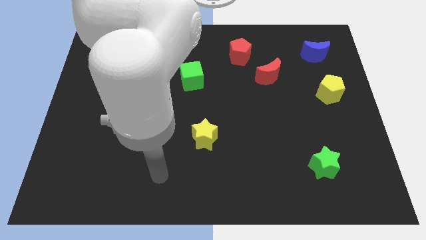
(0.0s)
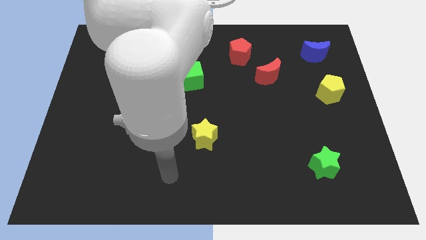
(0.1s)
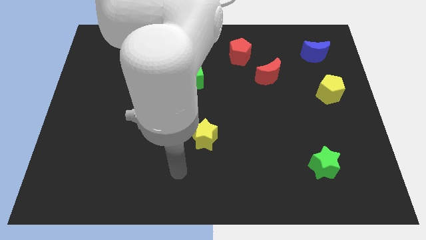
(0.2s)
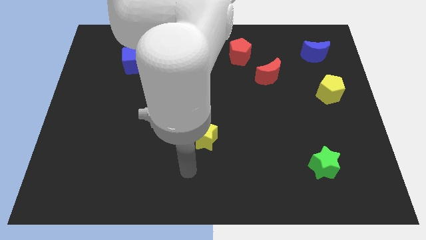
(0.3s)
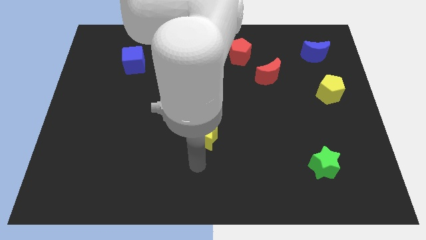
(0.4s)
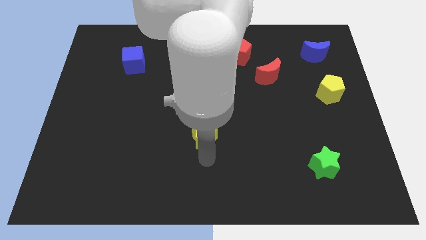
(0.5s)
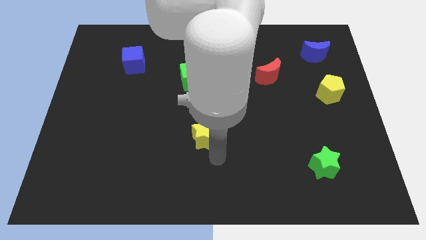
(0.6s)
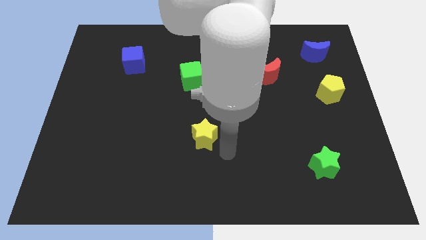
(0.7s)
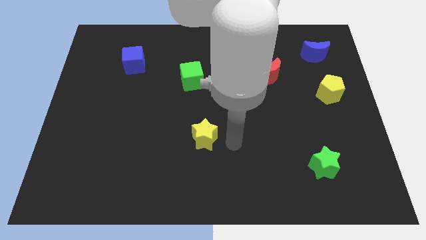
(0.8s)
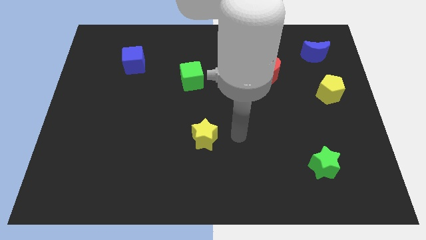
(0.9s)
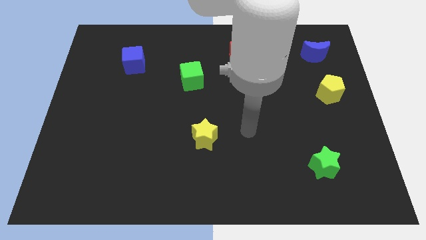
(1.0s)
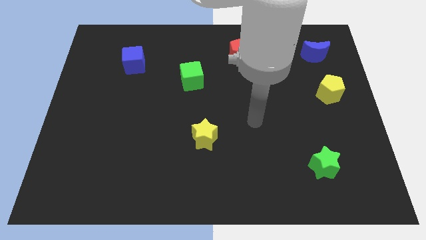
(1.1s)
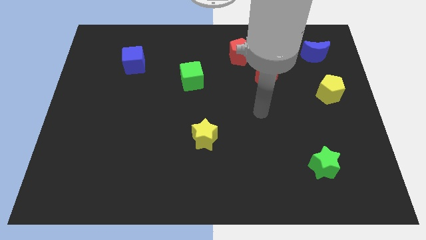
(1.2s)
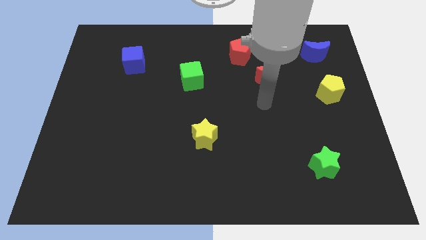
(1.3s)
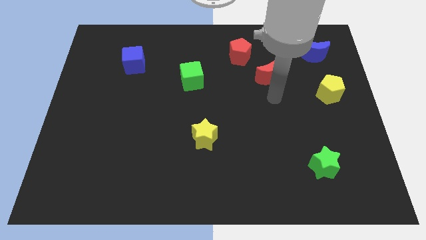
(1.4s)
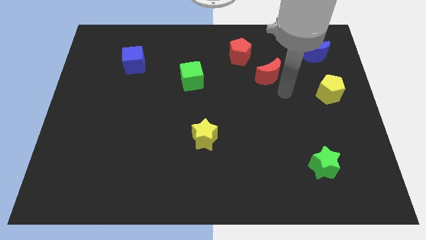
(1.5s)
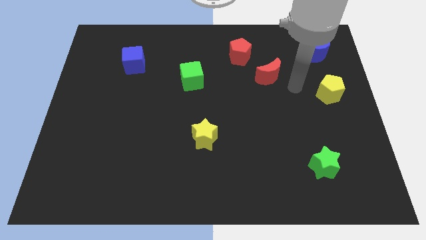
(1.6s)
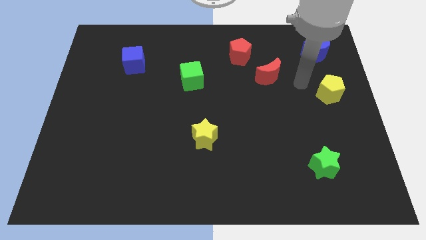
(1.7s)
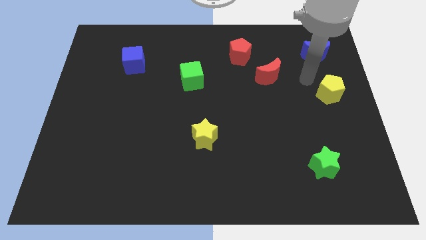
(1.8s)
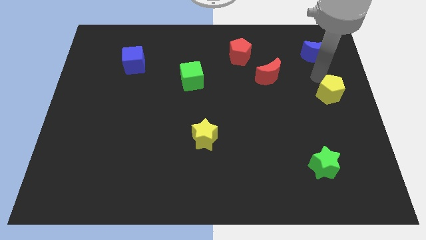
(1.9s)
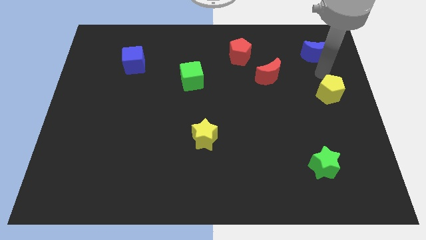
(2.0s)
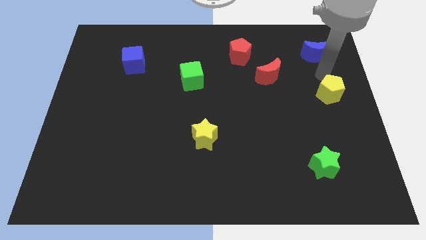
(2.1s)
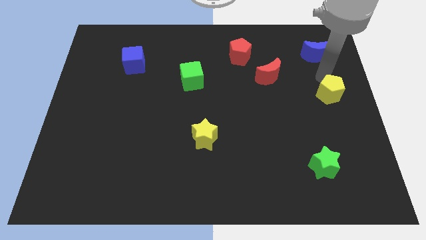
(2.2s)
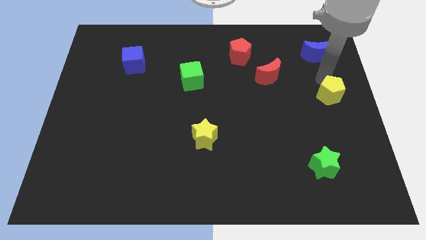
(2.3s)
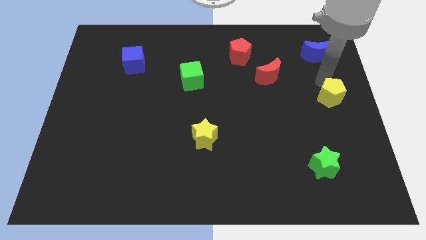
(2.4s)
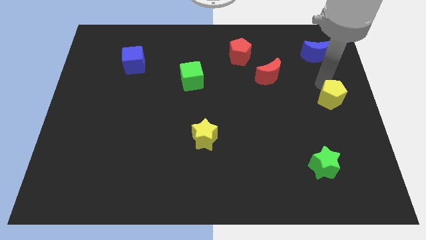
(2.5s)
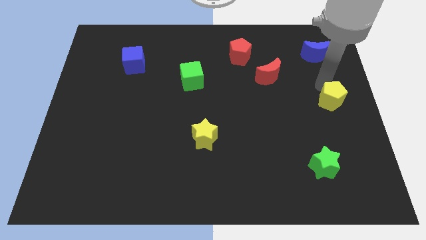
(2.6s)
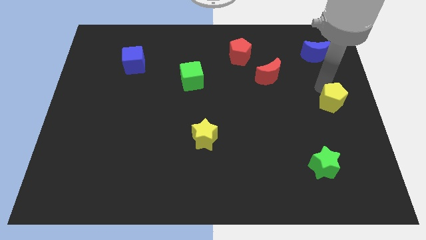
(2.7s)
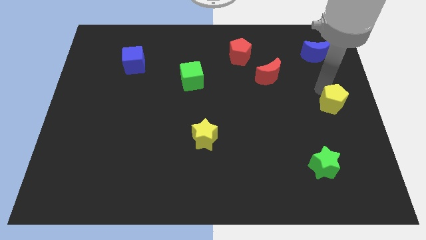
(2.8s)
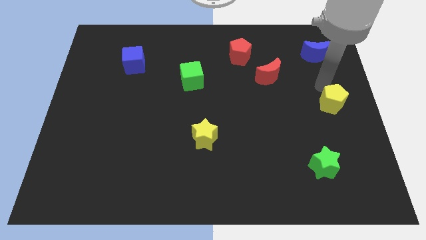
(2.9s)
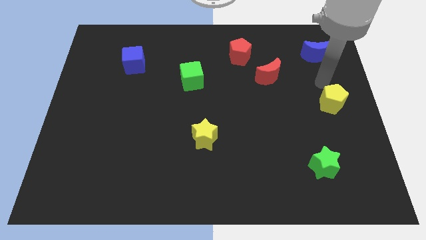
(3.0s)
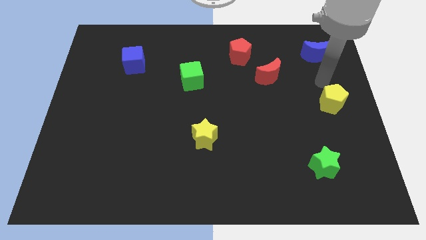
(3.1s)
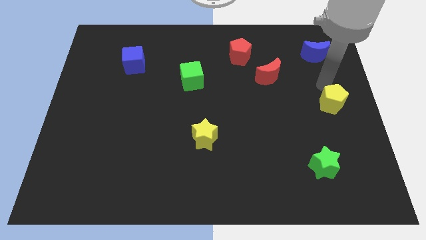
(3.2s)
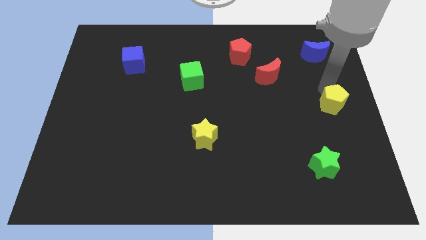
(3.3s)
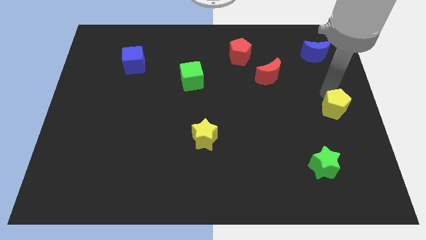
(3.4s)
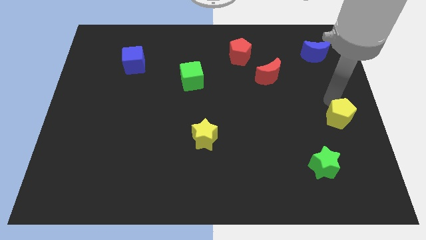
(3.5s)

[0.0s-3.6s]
slightly push the yellow pentagon downwards

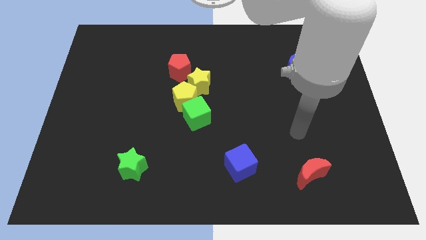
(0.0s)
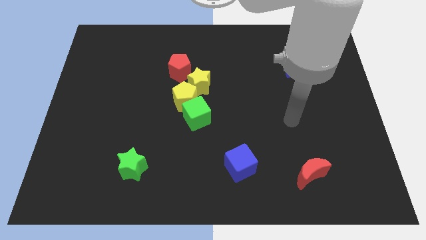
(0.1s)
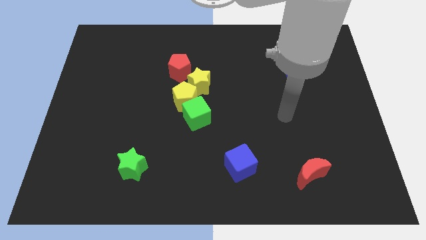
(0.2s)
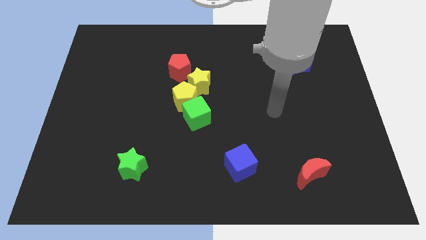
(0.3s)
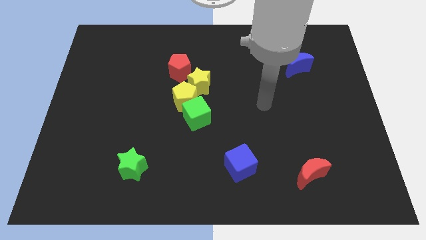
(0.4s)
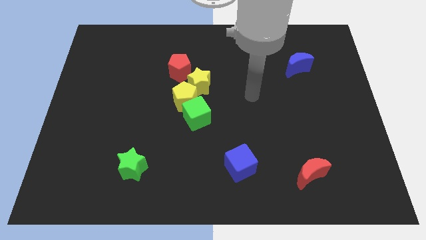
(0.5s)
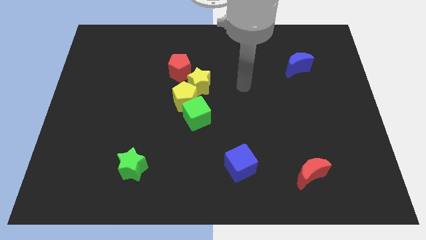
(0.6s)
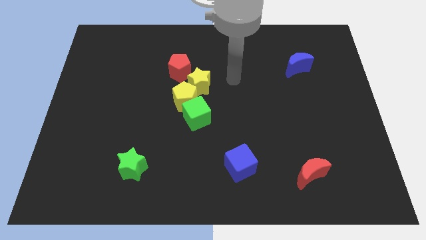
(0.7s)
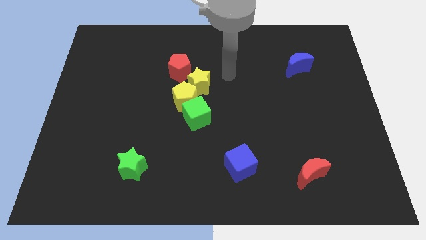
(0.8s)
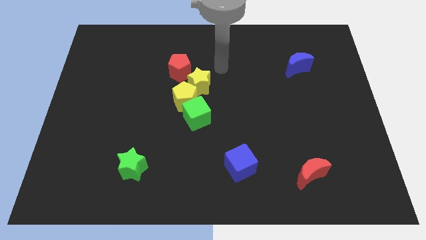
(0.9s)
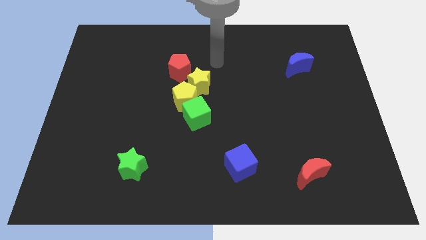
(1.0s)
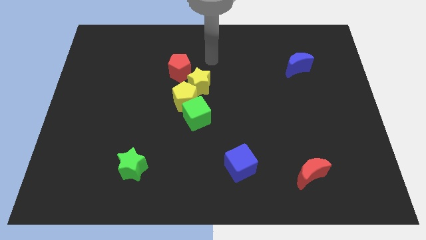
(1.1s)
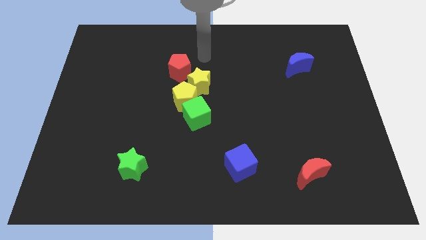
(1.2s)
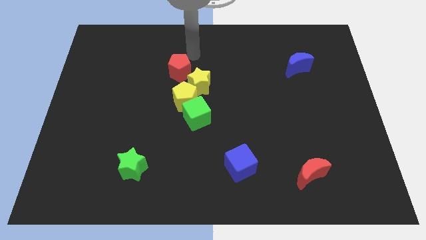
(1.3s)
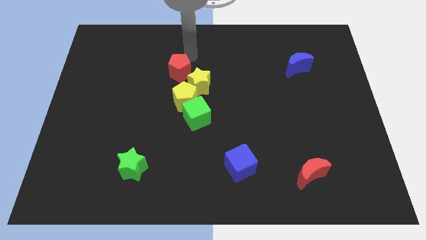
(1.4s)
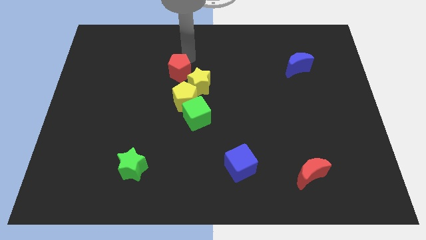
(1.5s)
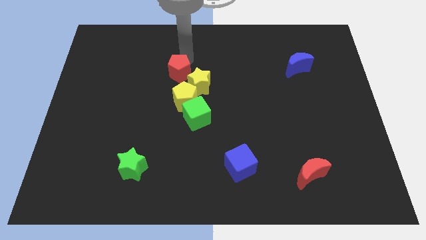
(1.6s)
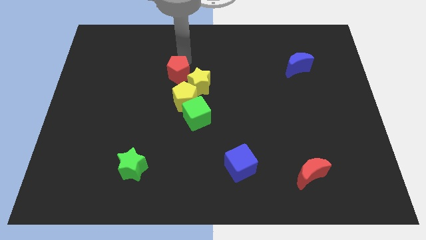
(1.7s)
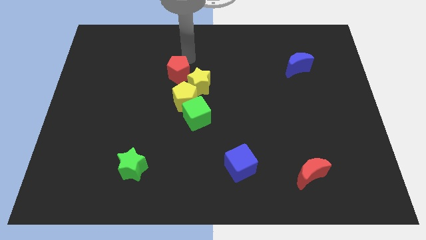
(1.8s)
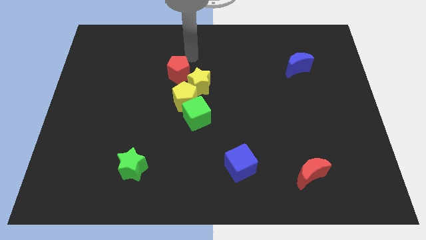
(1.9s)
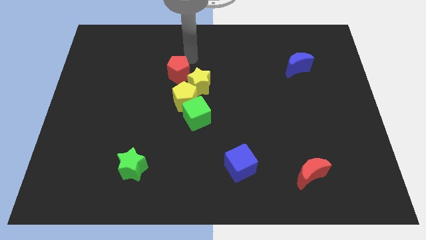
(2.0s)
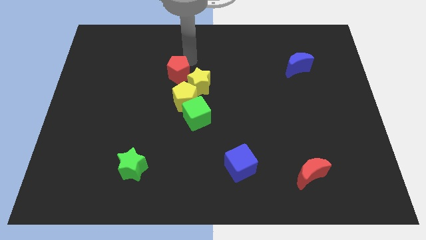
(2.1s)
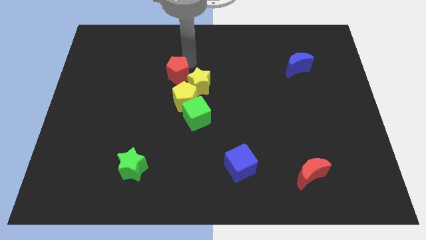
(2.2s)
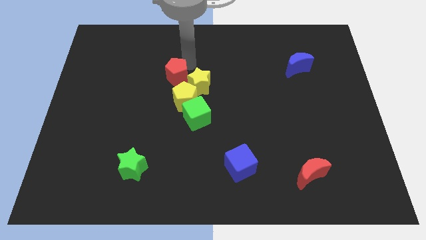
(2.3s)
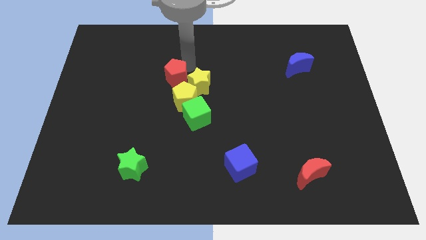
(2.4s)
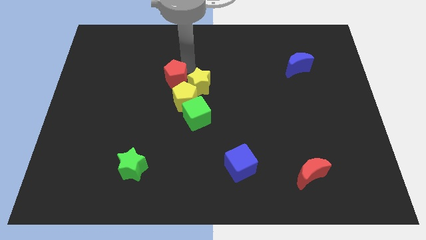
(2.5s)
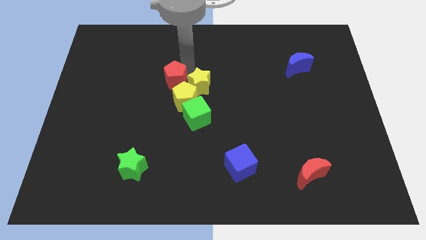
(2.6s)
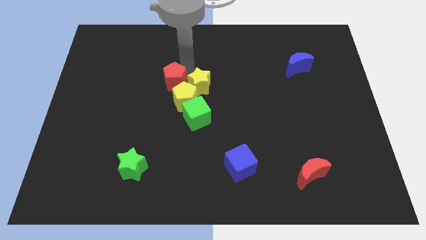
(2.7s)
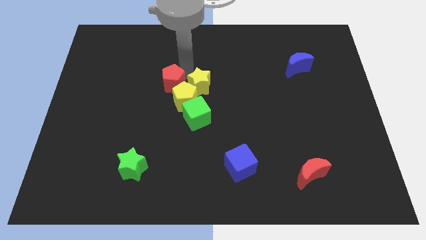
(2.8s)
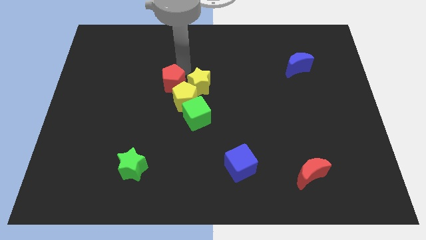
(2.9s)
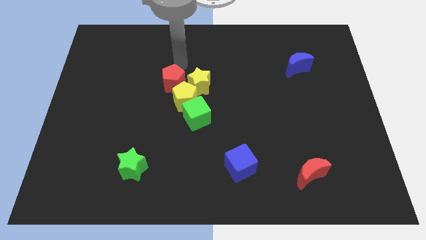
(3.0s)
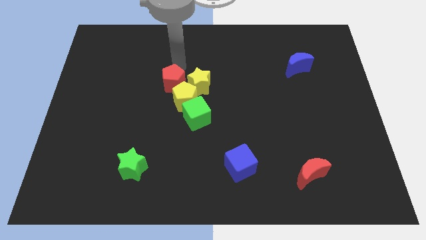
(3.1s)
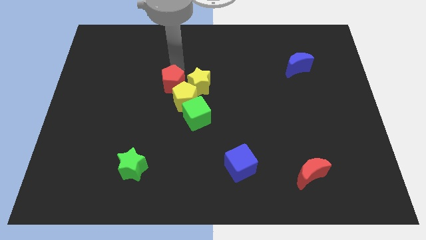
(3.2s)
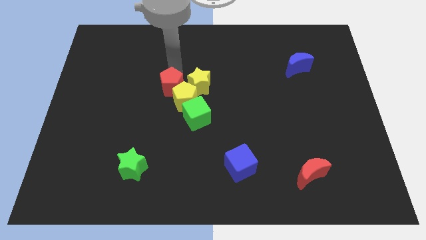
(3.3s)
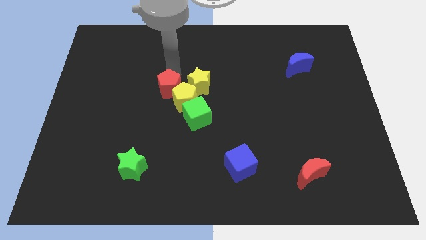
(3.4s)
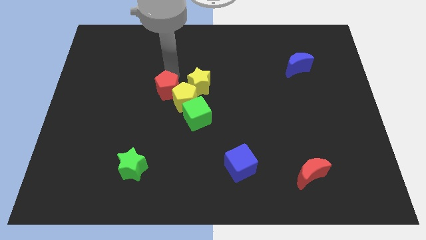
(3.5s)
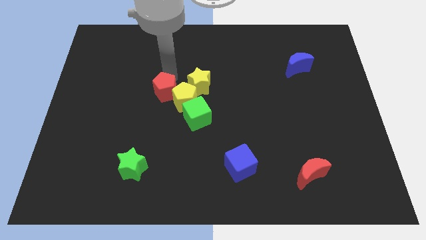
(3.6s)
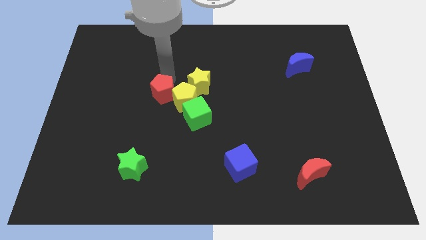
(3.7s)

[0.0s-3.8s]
move the red pentagon down a little

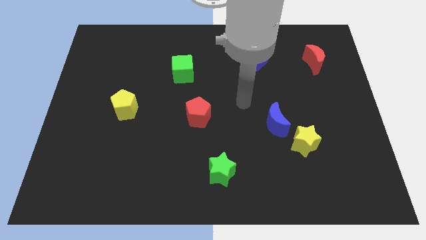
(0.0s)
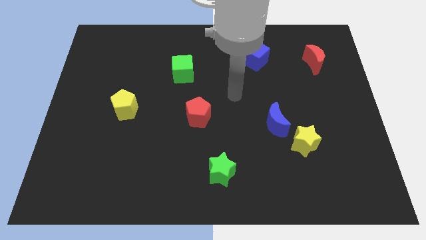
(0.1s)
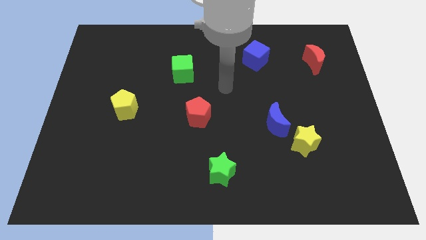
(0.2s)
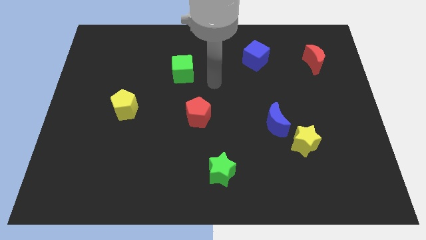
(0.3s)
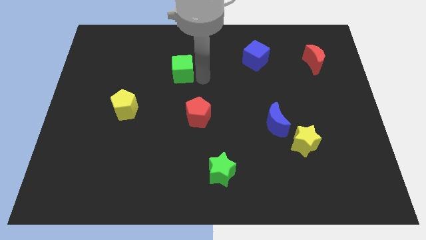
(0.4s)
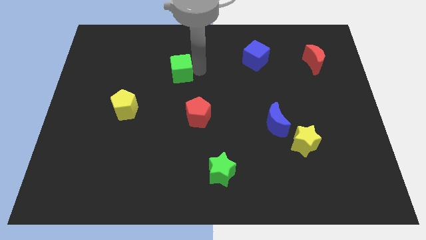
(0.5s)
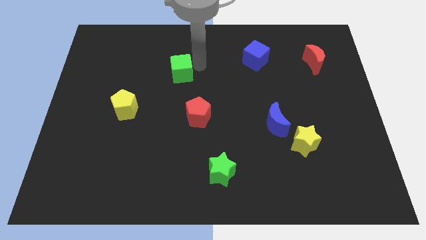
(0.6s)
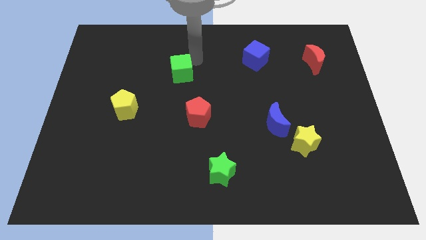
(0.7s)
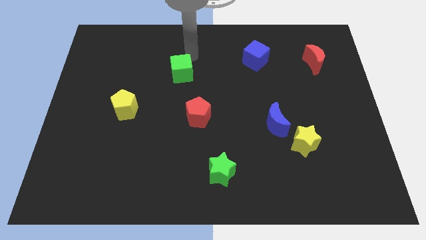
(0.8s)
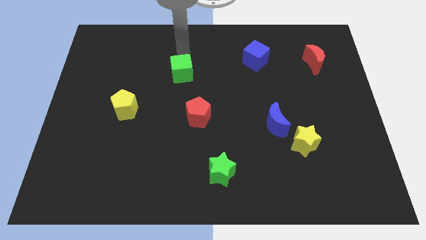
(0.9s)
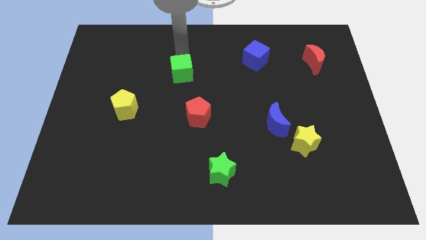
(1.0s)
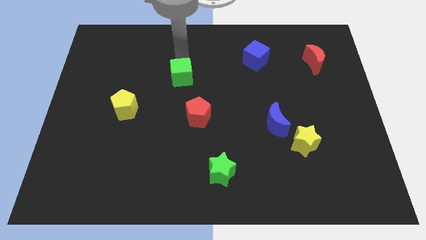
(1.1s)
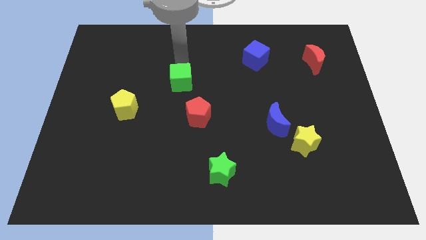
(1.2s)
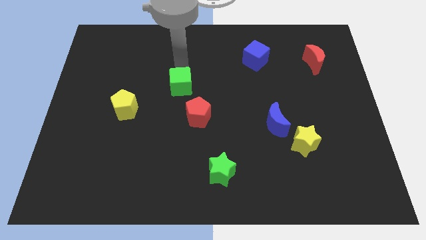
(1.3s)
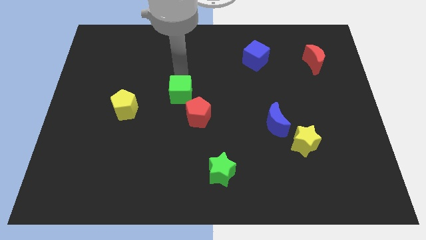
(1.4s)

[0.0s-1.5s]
push the green cube down somewhat
